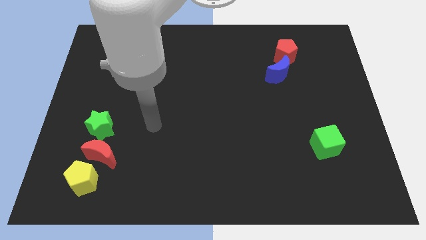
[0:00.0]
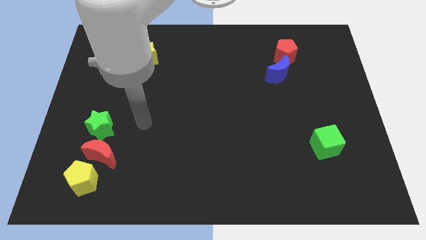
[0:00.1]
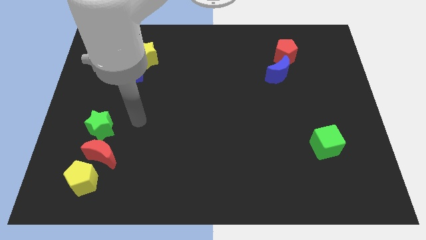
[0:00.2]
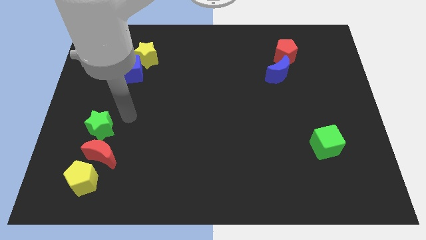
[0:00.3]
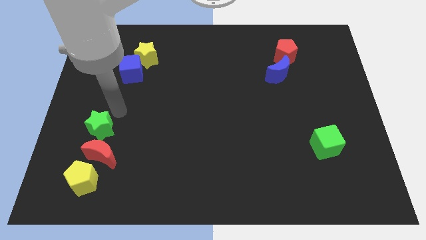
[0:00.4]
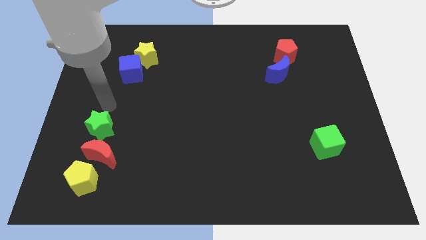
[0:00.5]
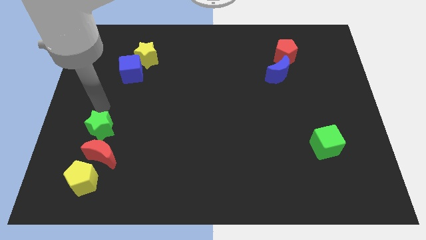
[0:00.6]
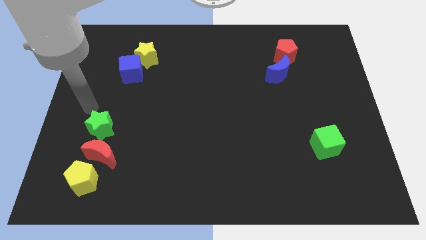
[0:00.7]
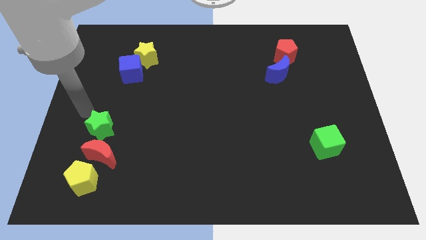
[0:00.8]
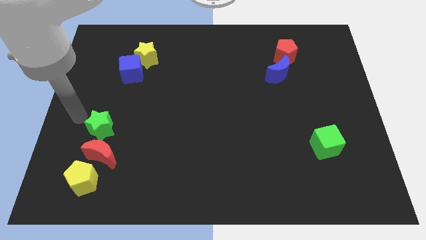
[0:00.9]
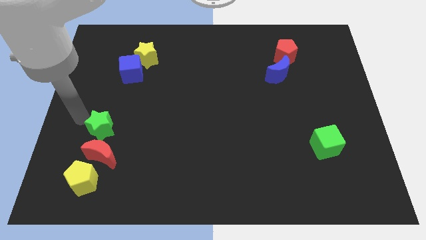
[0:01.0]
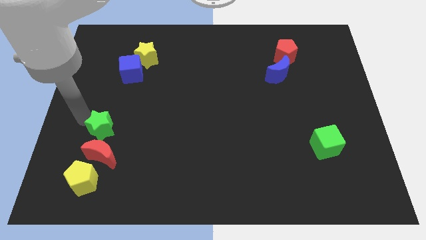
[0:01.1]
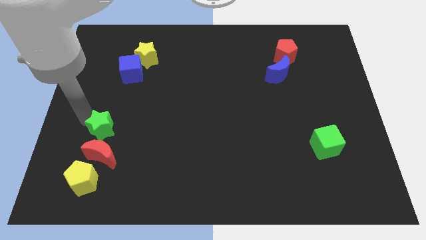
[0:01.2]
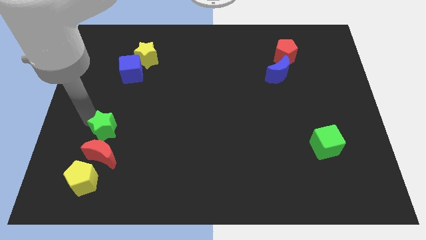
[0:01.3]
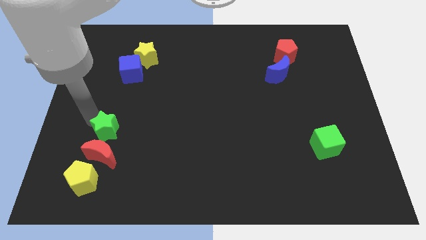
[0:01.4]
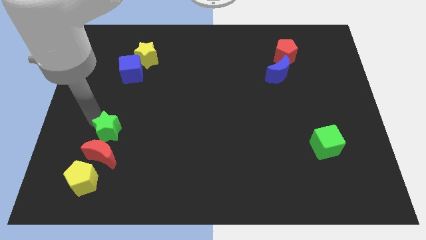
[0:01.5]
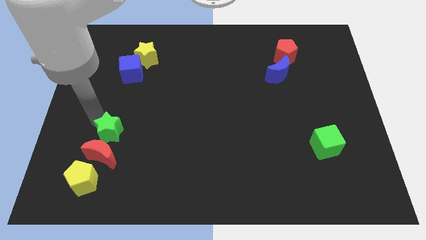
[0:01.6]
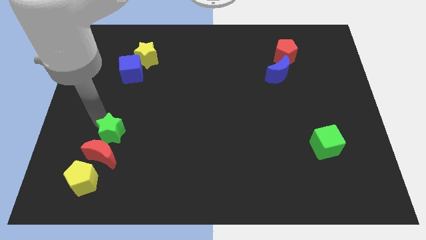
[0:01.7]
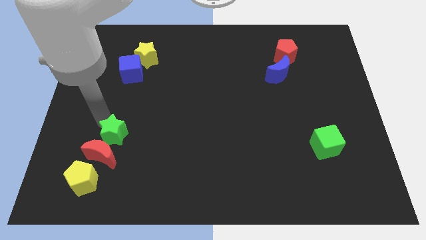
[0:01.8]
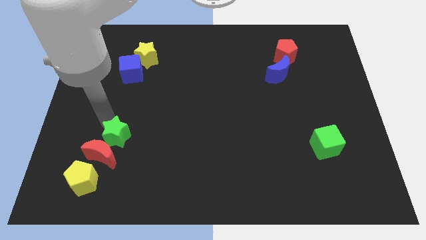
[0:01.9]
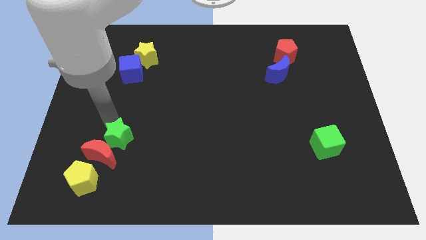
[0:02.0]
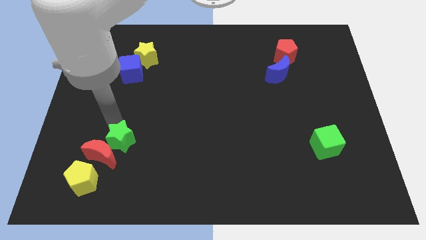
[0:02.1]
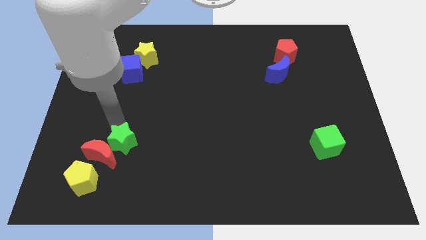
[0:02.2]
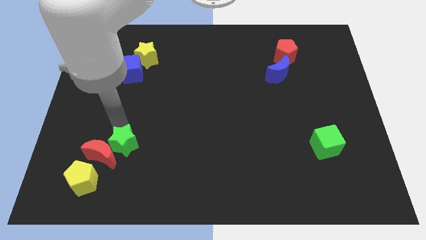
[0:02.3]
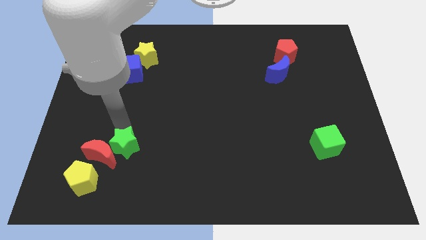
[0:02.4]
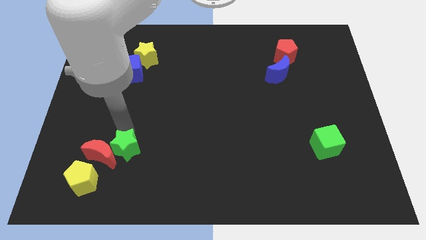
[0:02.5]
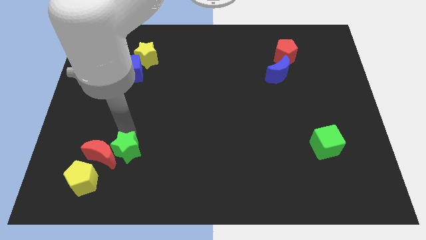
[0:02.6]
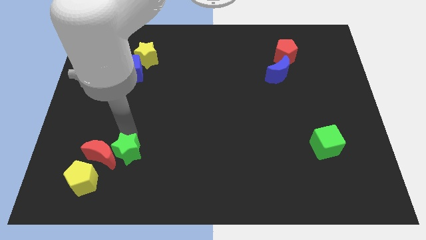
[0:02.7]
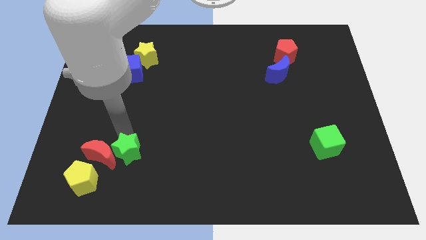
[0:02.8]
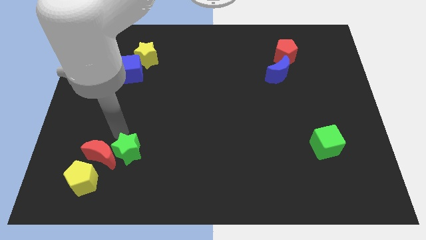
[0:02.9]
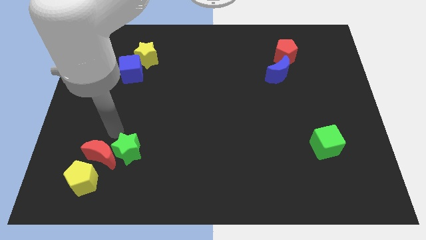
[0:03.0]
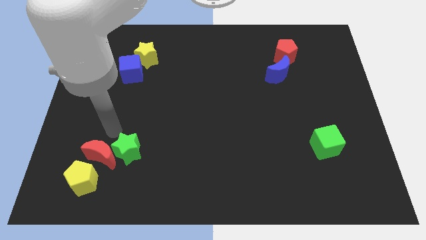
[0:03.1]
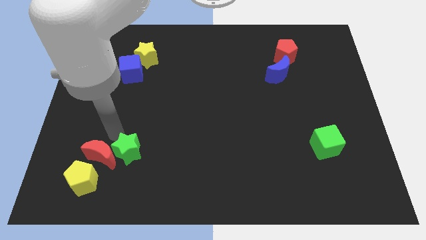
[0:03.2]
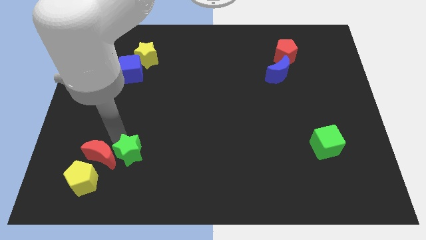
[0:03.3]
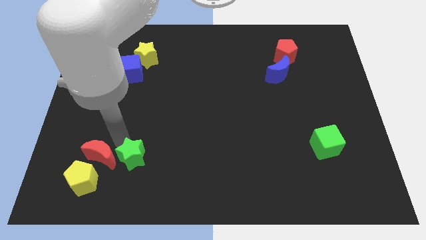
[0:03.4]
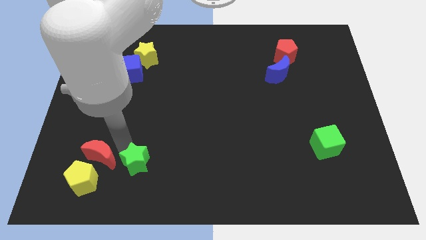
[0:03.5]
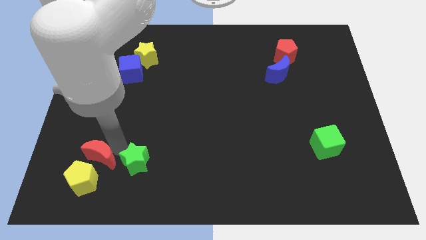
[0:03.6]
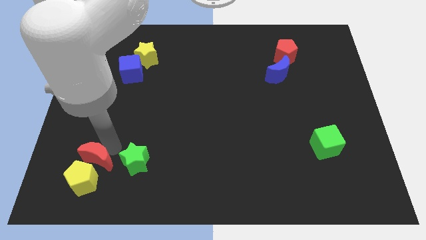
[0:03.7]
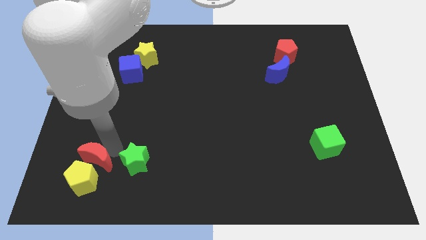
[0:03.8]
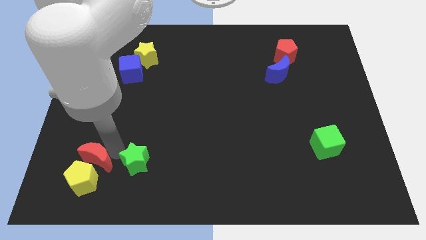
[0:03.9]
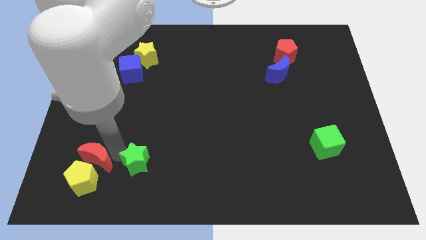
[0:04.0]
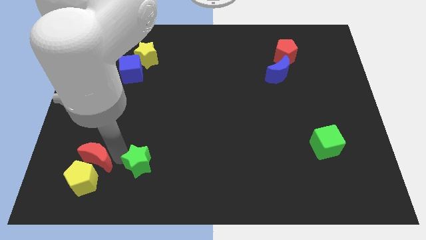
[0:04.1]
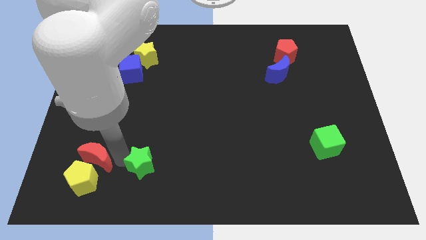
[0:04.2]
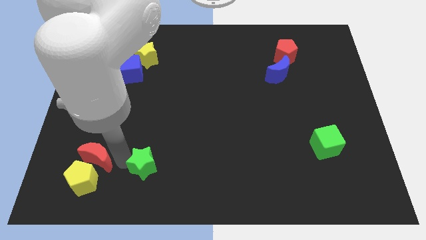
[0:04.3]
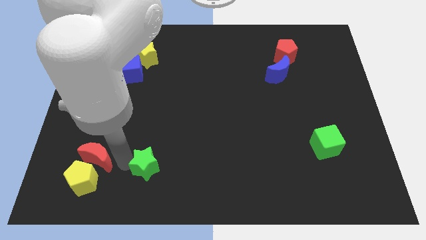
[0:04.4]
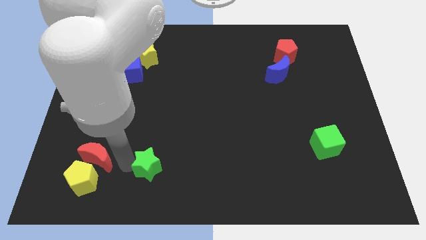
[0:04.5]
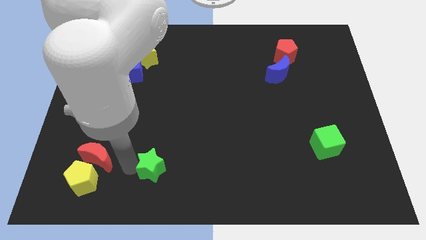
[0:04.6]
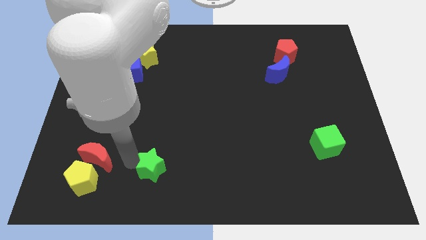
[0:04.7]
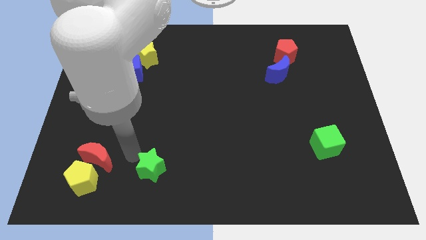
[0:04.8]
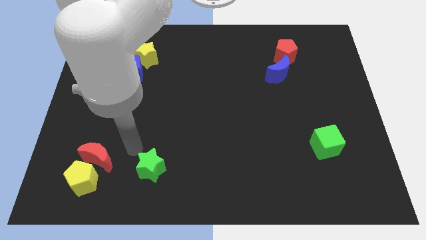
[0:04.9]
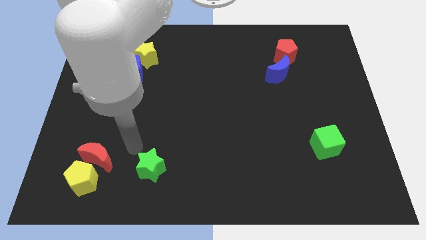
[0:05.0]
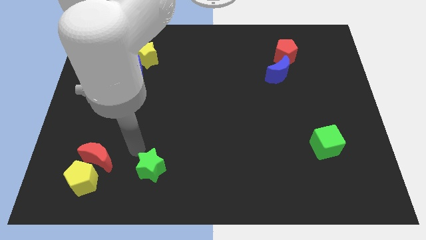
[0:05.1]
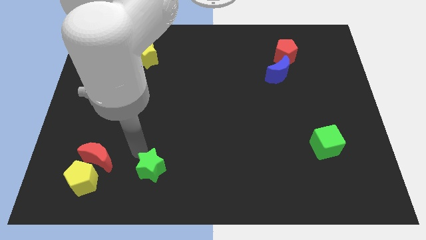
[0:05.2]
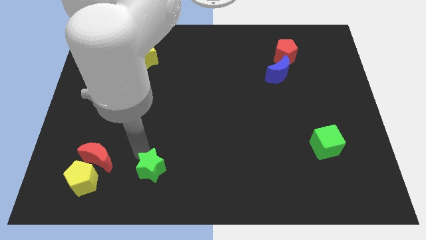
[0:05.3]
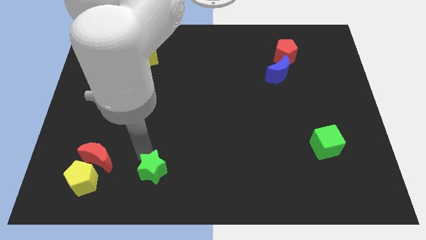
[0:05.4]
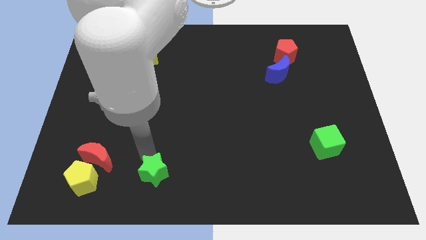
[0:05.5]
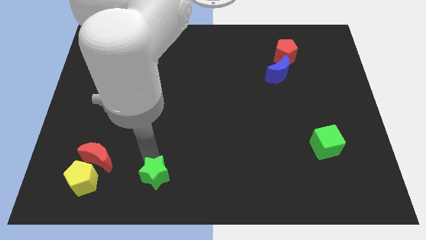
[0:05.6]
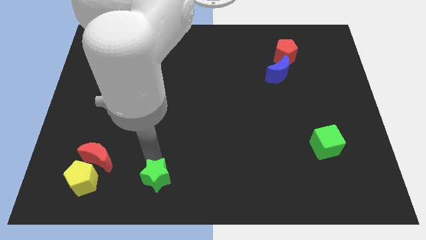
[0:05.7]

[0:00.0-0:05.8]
slide the green star to the bottom side

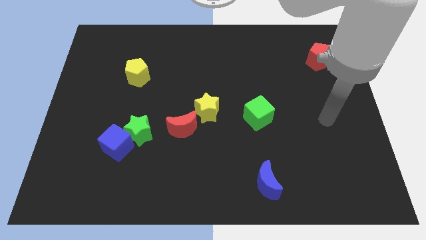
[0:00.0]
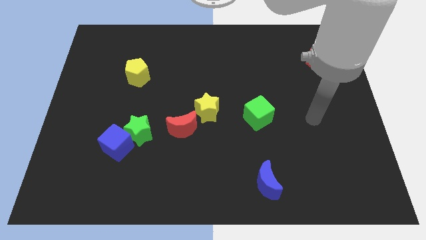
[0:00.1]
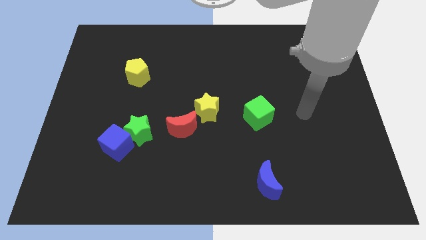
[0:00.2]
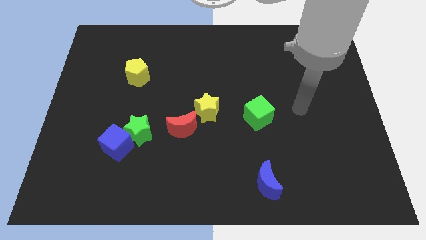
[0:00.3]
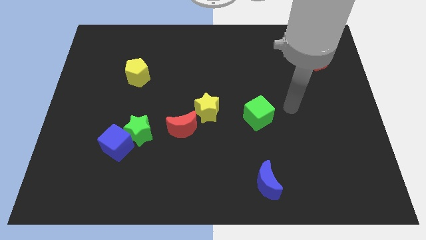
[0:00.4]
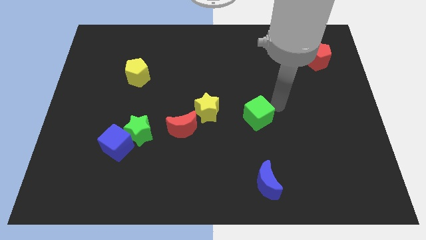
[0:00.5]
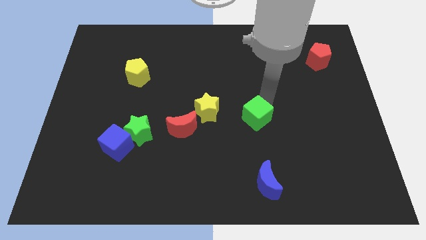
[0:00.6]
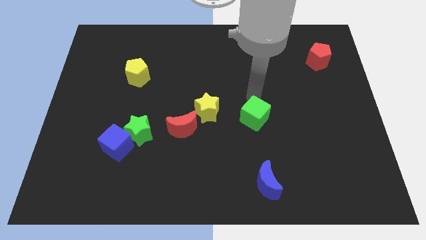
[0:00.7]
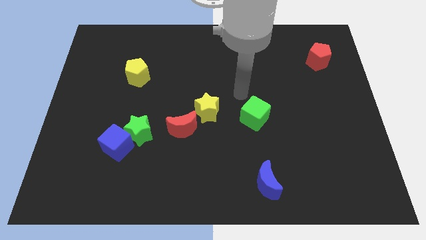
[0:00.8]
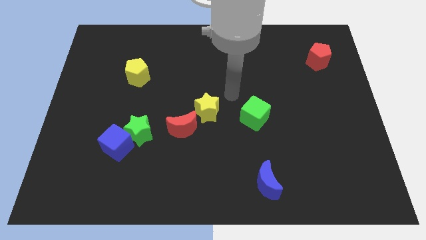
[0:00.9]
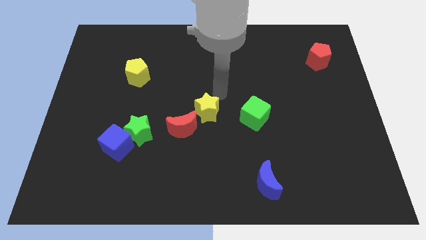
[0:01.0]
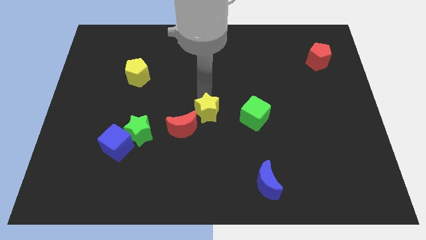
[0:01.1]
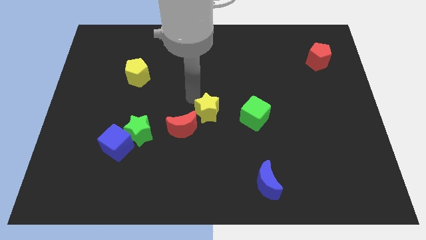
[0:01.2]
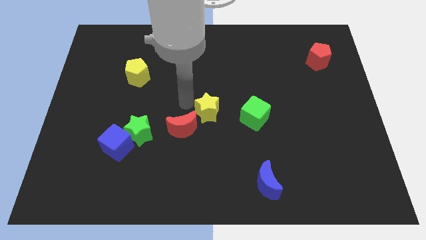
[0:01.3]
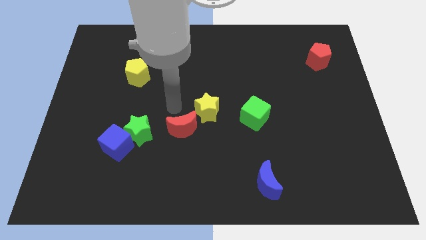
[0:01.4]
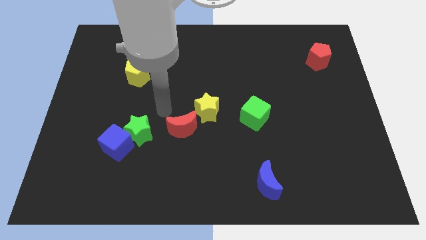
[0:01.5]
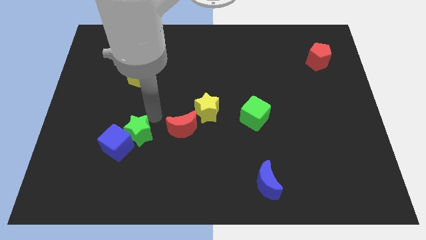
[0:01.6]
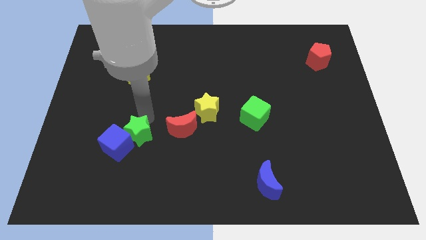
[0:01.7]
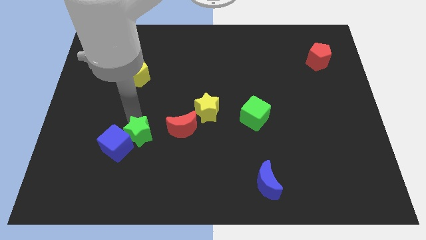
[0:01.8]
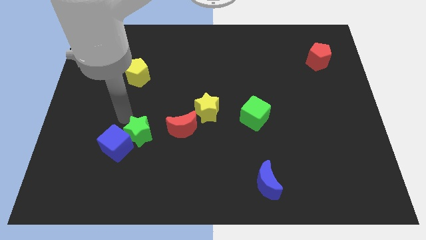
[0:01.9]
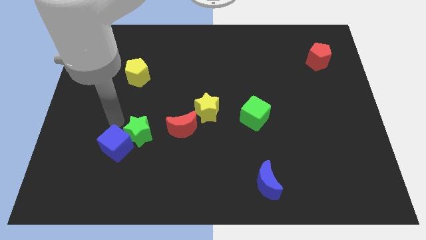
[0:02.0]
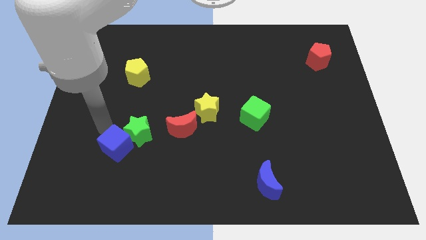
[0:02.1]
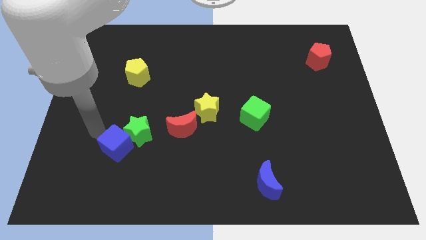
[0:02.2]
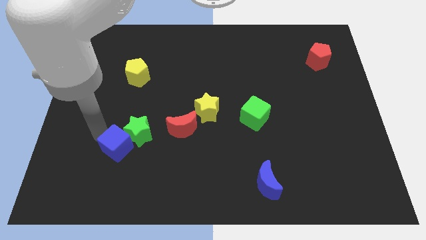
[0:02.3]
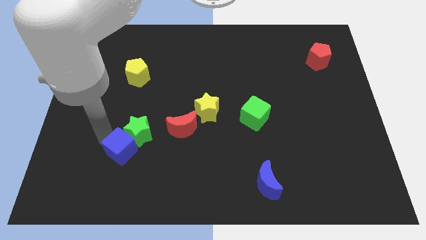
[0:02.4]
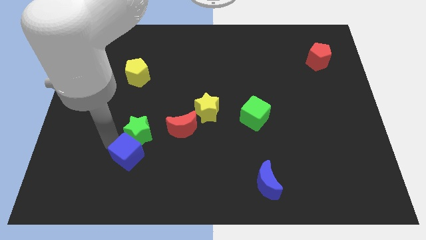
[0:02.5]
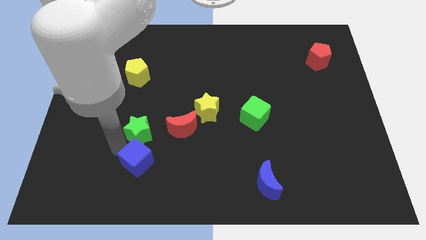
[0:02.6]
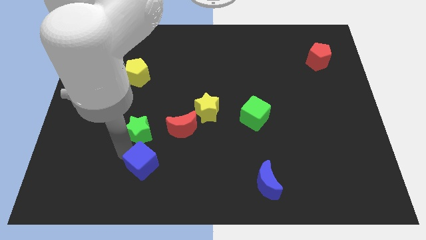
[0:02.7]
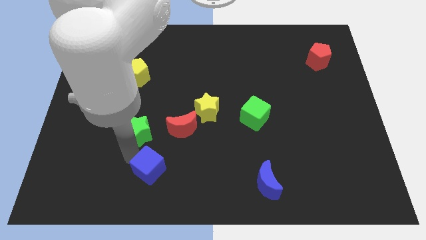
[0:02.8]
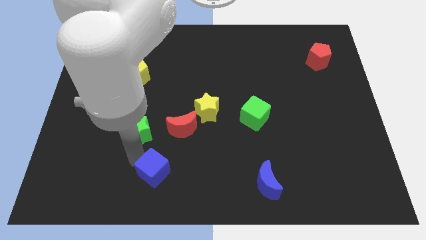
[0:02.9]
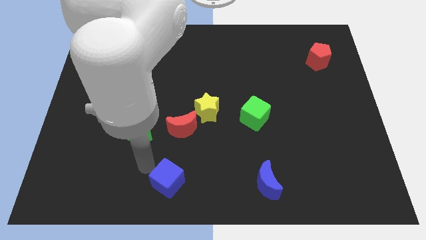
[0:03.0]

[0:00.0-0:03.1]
move the blue cube to the bottom
